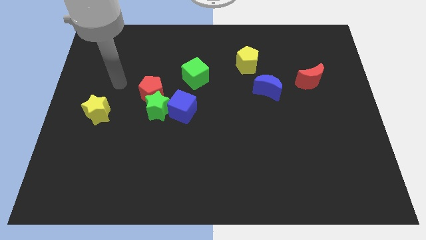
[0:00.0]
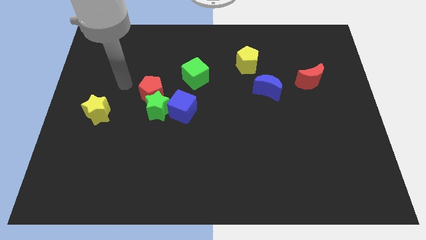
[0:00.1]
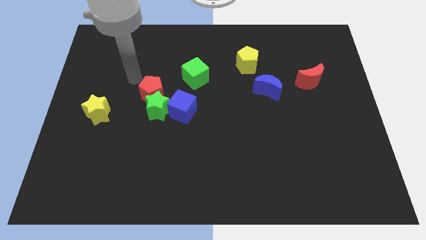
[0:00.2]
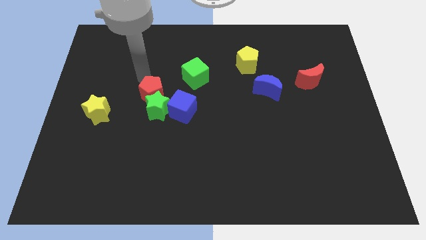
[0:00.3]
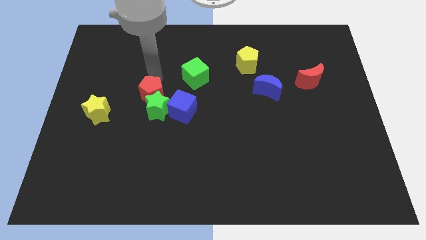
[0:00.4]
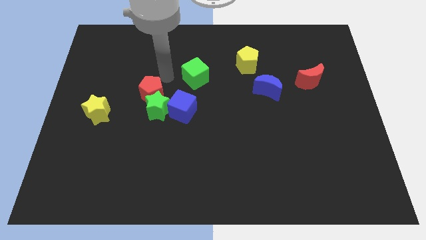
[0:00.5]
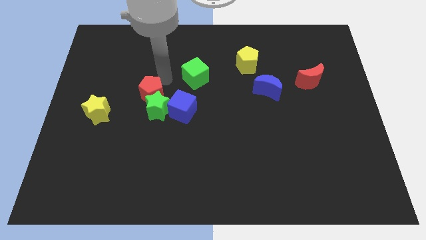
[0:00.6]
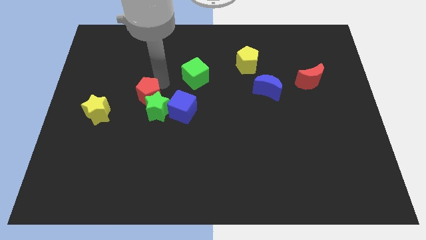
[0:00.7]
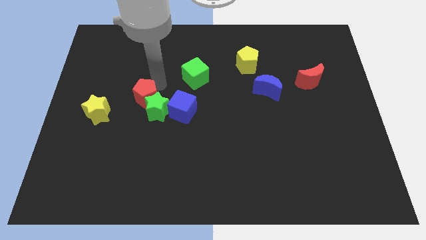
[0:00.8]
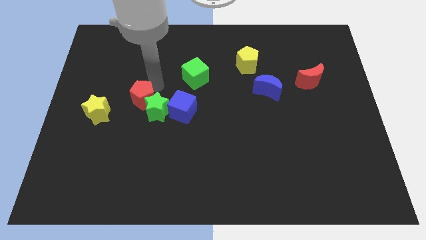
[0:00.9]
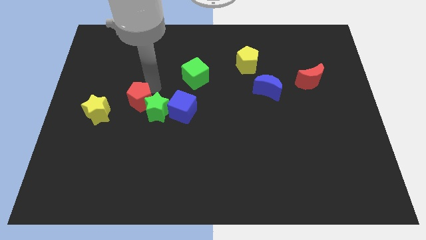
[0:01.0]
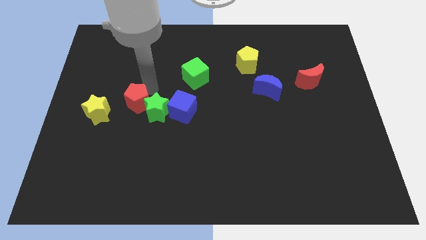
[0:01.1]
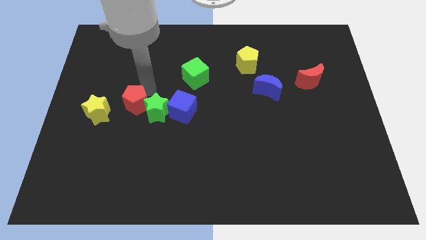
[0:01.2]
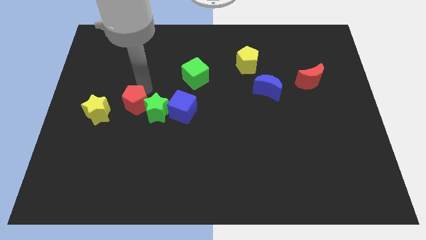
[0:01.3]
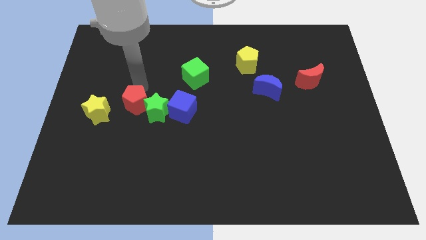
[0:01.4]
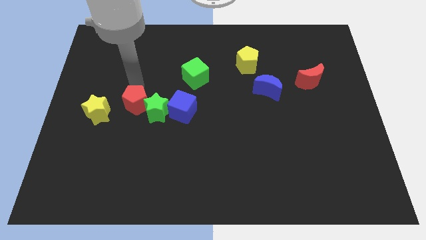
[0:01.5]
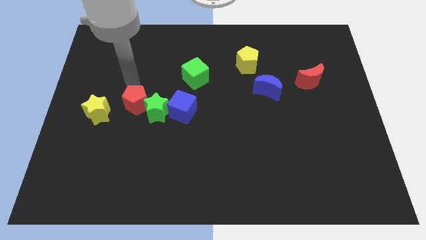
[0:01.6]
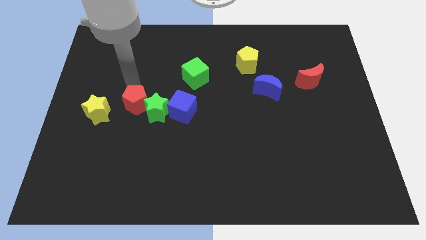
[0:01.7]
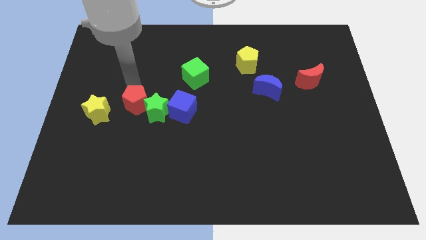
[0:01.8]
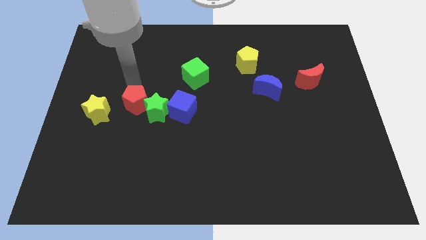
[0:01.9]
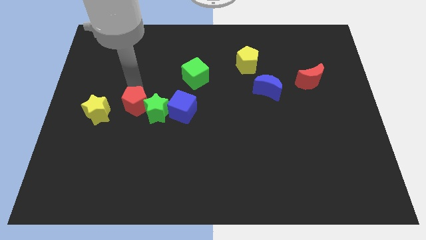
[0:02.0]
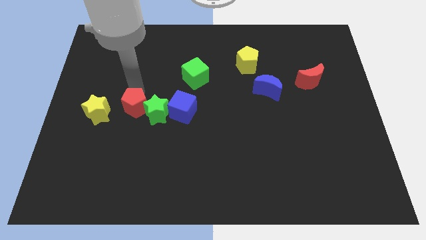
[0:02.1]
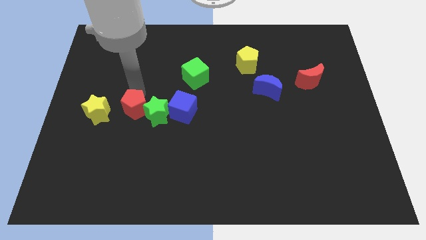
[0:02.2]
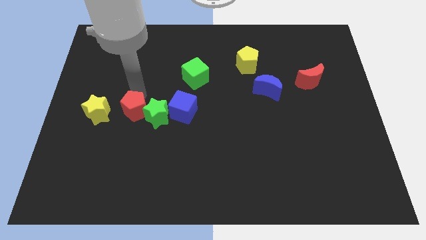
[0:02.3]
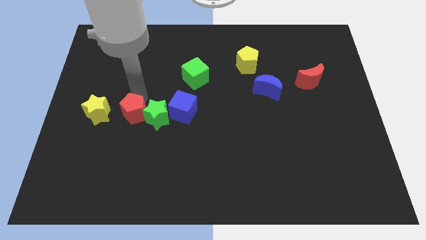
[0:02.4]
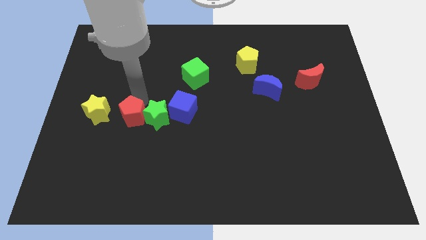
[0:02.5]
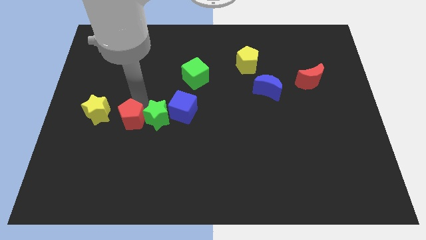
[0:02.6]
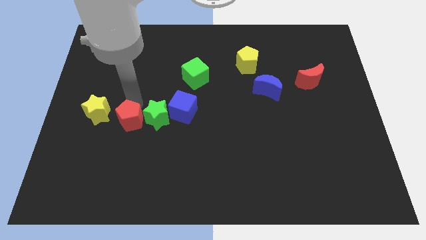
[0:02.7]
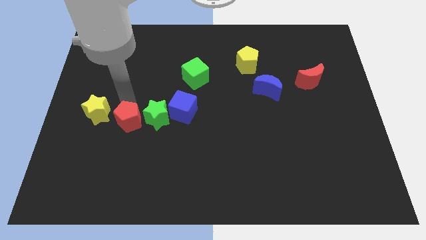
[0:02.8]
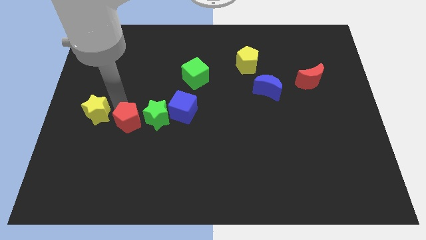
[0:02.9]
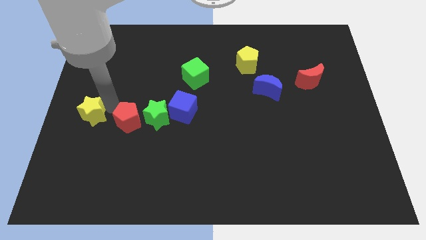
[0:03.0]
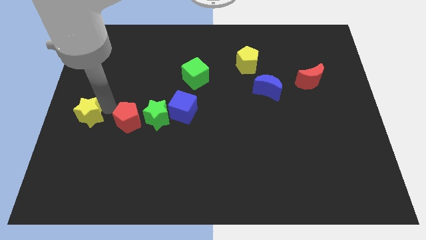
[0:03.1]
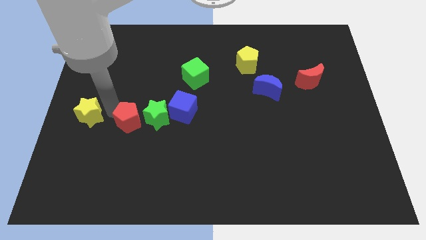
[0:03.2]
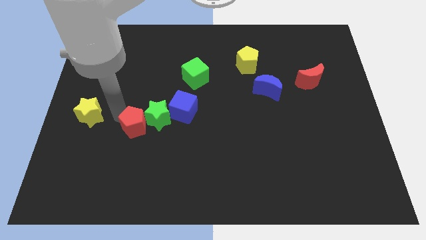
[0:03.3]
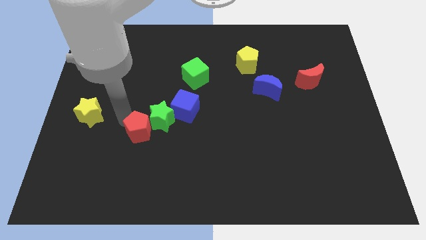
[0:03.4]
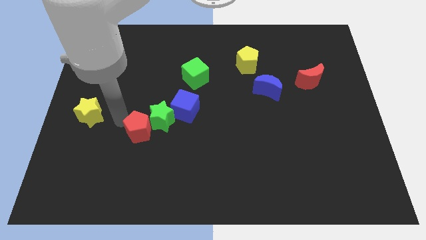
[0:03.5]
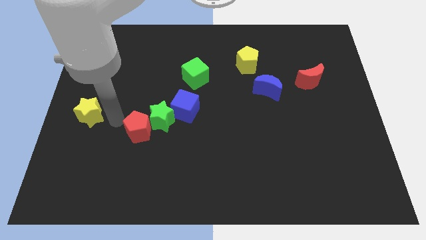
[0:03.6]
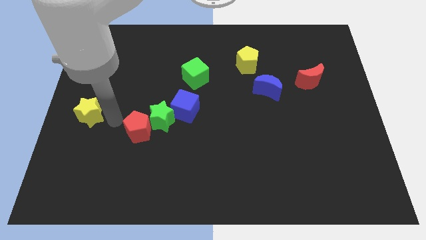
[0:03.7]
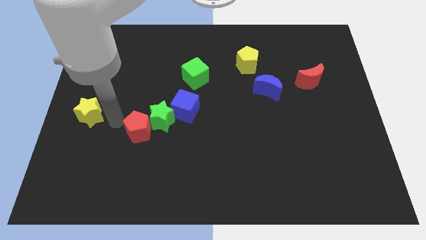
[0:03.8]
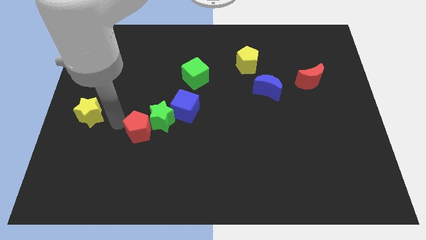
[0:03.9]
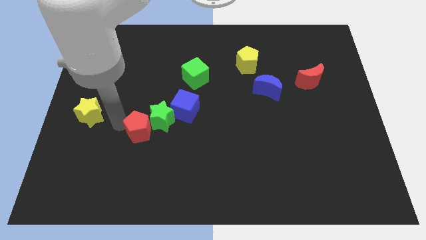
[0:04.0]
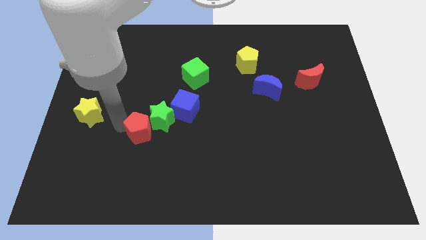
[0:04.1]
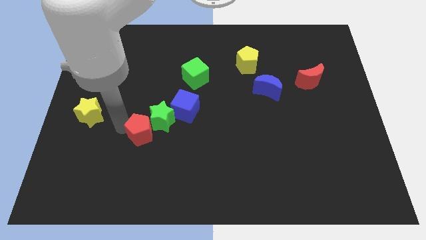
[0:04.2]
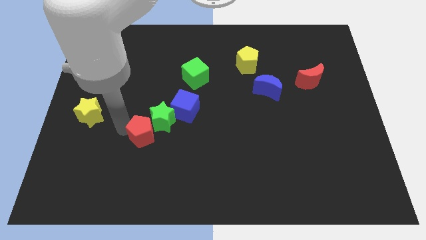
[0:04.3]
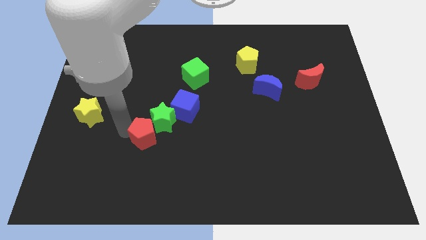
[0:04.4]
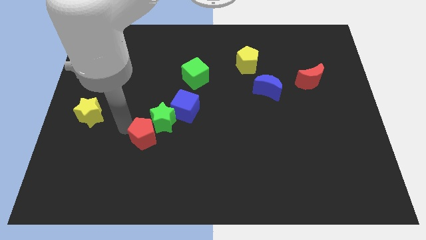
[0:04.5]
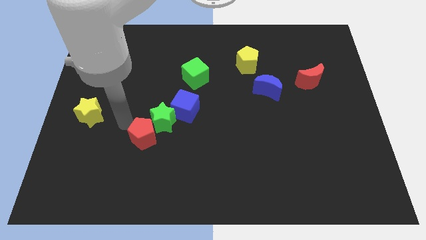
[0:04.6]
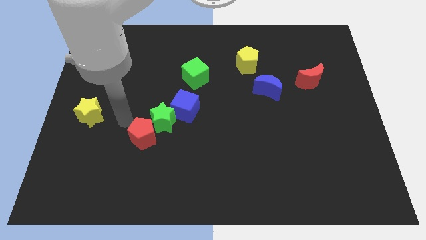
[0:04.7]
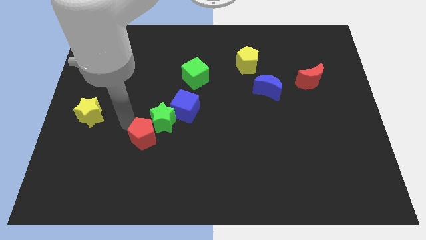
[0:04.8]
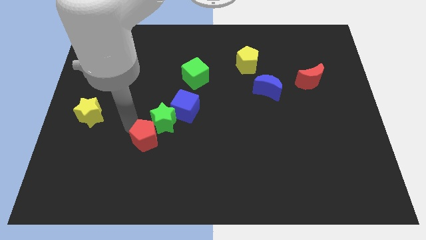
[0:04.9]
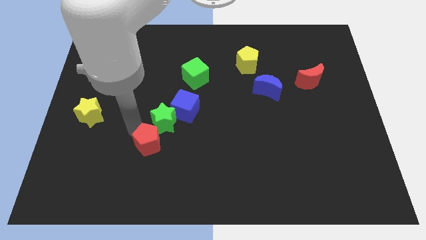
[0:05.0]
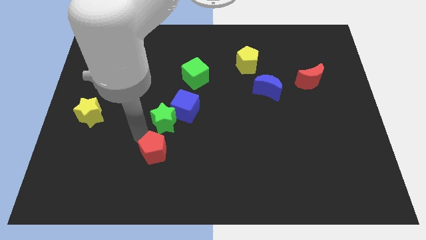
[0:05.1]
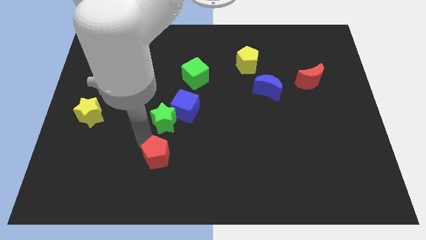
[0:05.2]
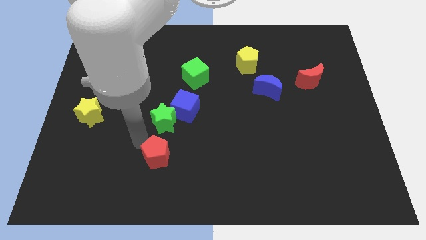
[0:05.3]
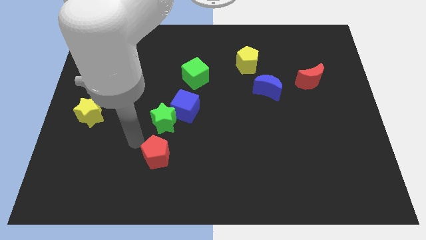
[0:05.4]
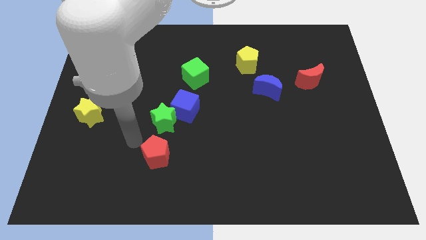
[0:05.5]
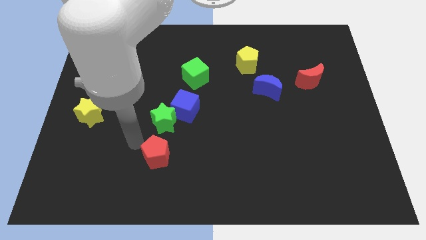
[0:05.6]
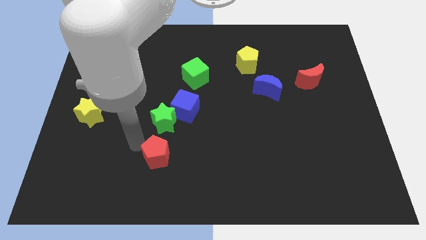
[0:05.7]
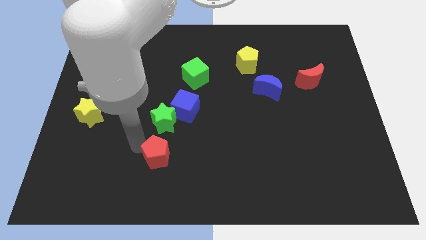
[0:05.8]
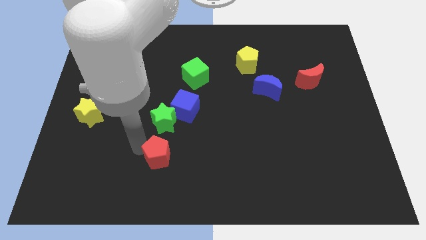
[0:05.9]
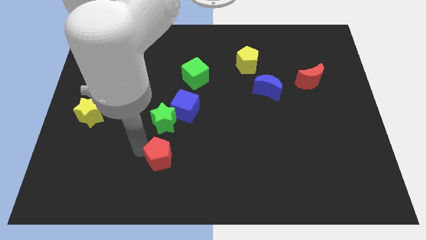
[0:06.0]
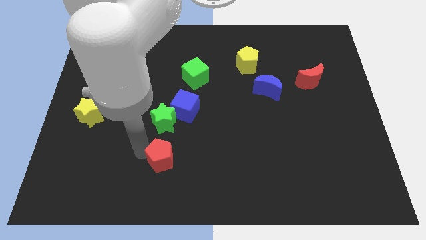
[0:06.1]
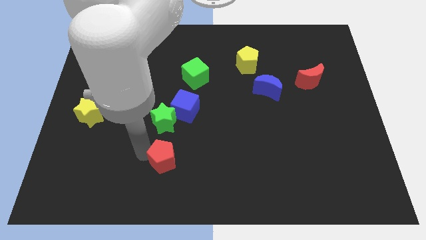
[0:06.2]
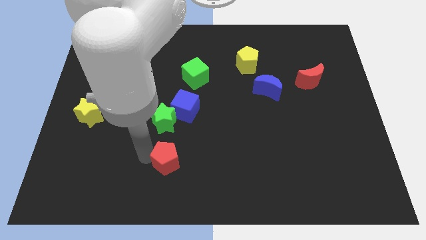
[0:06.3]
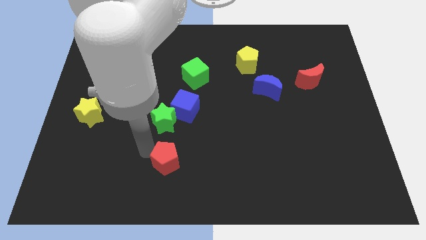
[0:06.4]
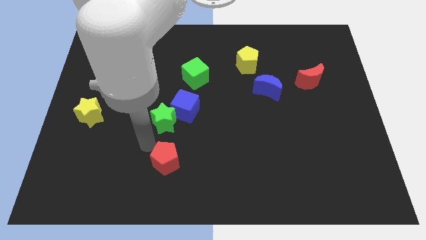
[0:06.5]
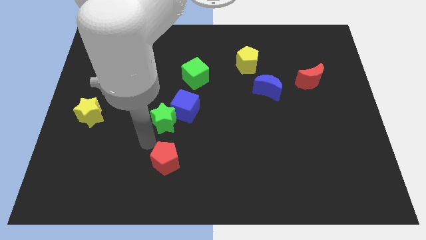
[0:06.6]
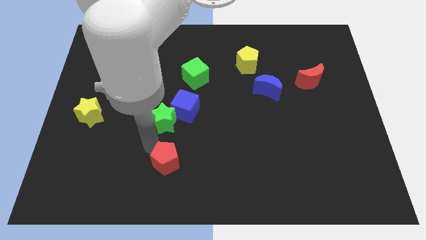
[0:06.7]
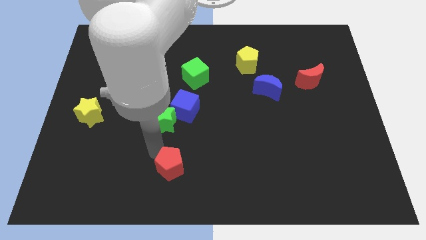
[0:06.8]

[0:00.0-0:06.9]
push the red pentagon to the bottom
